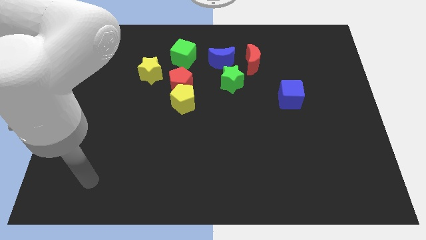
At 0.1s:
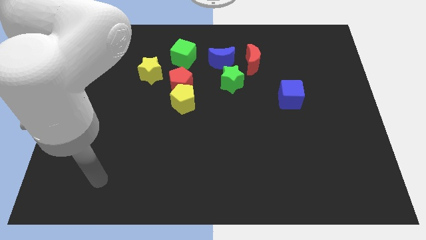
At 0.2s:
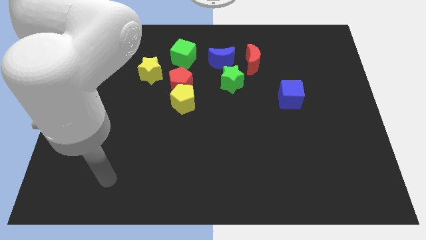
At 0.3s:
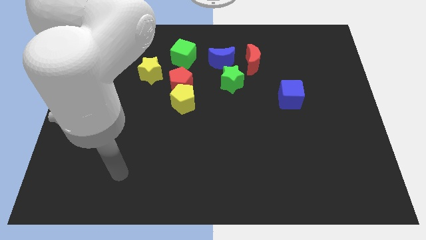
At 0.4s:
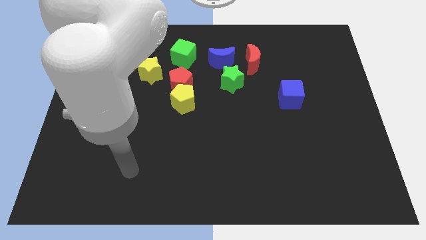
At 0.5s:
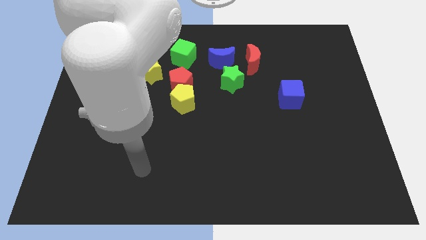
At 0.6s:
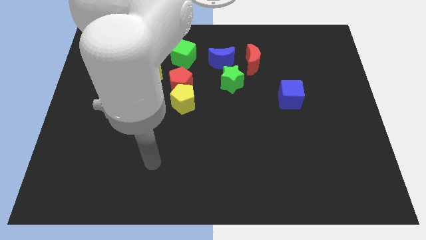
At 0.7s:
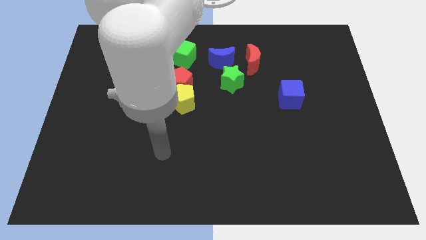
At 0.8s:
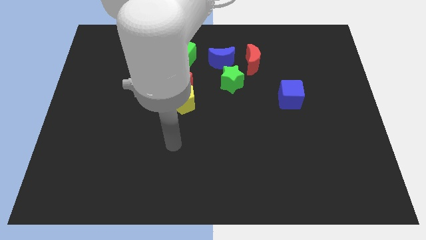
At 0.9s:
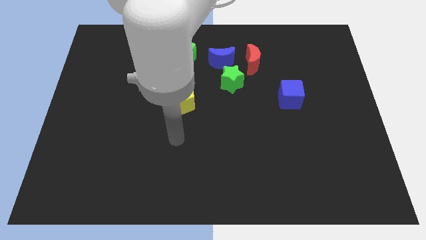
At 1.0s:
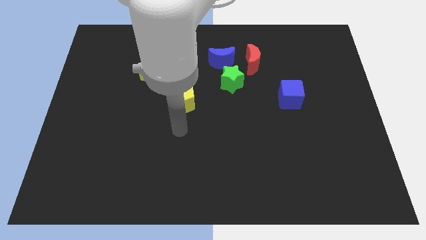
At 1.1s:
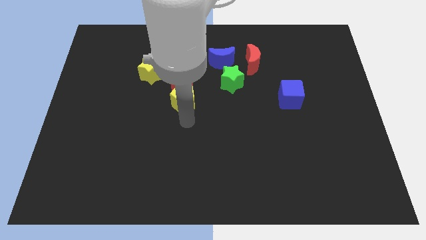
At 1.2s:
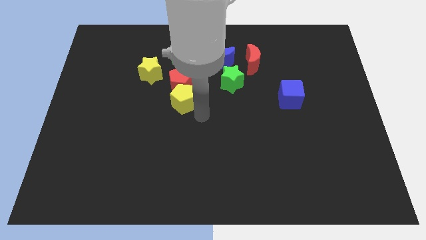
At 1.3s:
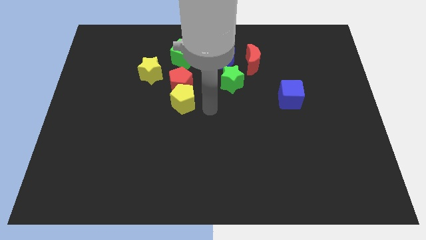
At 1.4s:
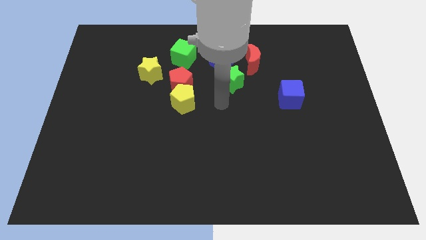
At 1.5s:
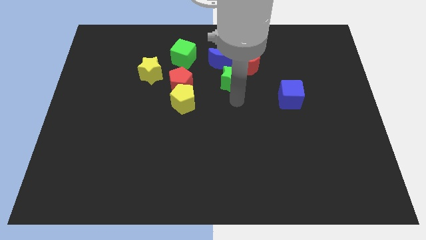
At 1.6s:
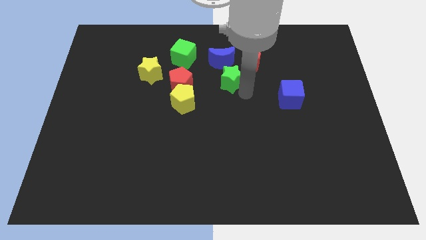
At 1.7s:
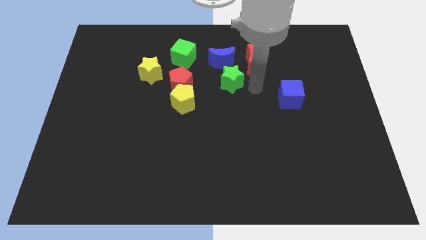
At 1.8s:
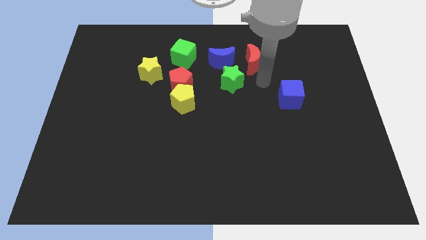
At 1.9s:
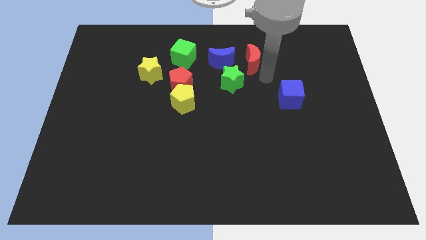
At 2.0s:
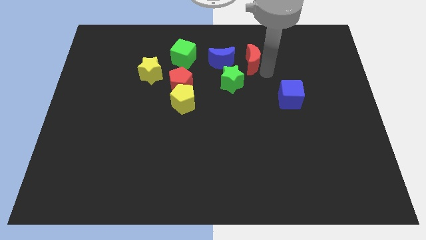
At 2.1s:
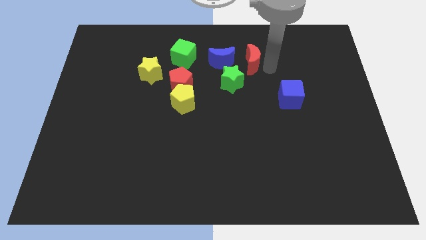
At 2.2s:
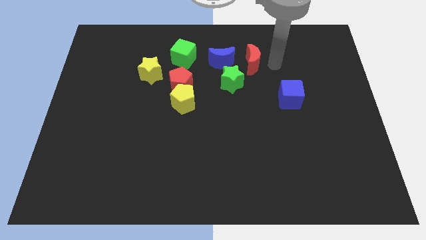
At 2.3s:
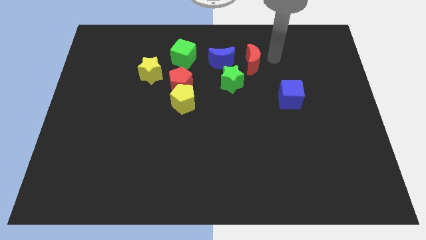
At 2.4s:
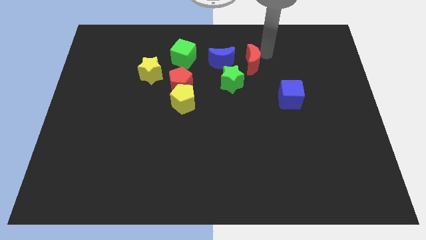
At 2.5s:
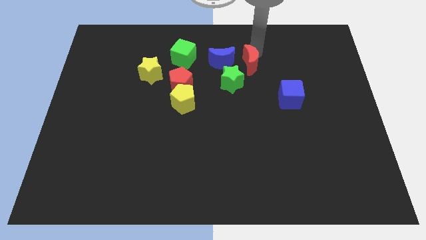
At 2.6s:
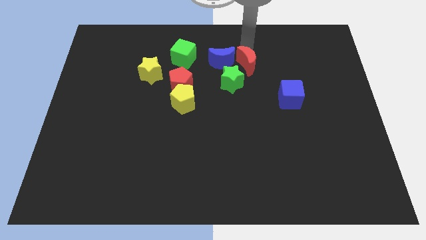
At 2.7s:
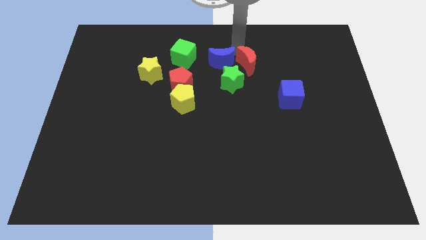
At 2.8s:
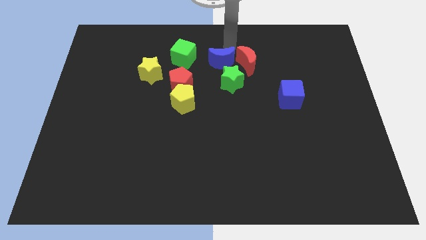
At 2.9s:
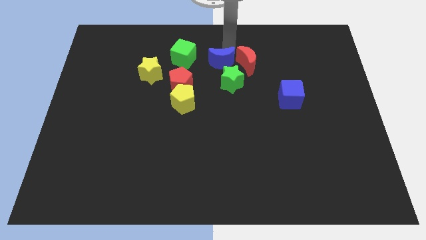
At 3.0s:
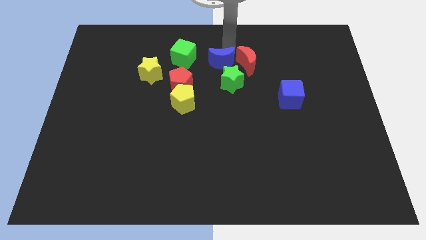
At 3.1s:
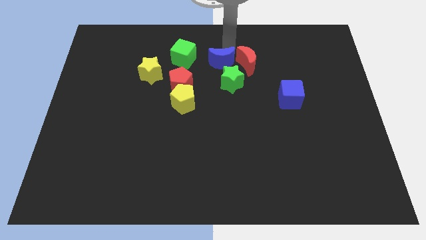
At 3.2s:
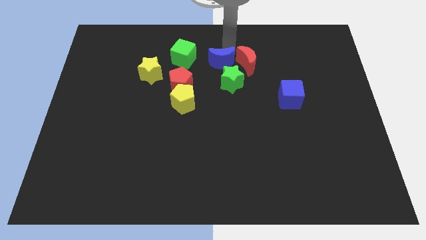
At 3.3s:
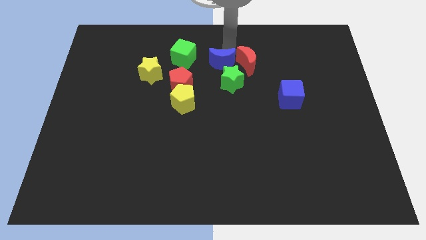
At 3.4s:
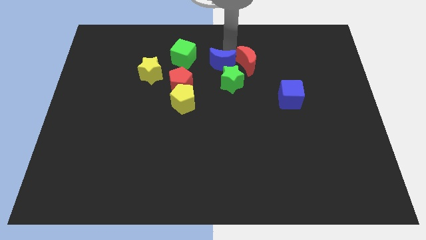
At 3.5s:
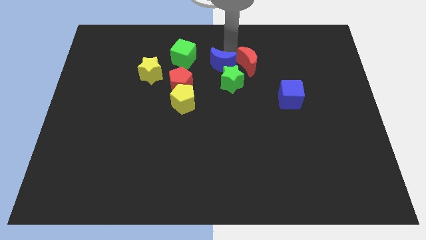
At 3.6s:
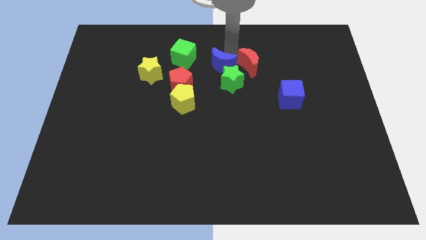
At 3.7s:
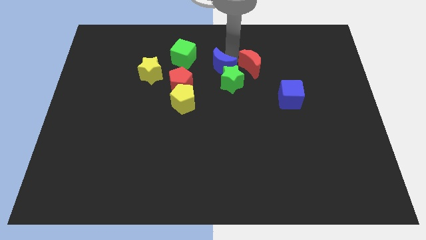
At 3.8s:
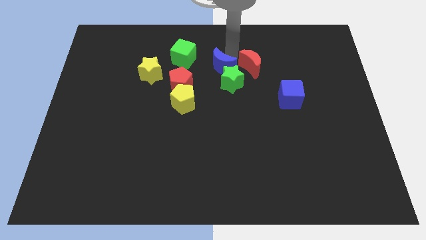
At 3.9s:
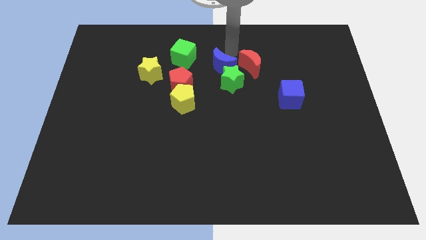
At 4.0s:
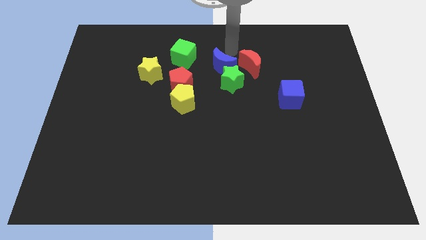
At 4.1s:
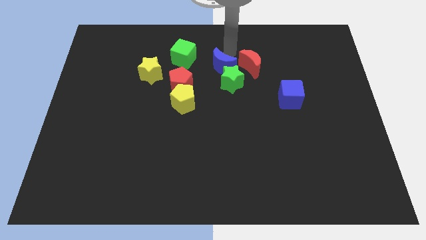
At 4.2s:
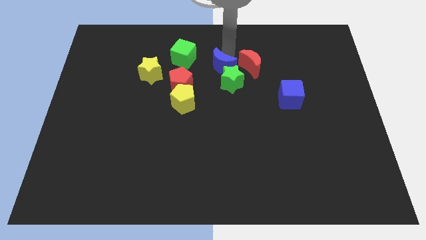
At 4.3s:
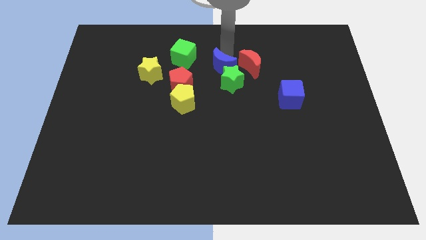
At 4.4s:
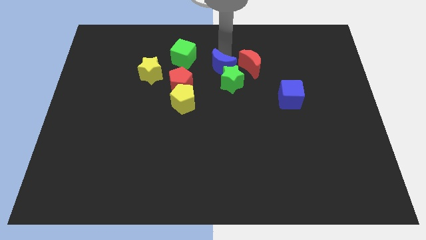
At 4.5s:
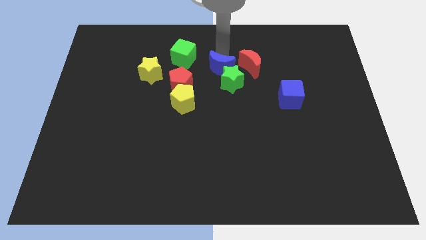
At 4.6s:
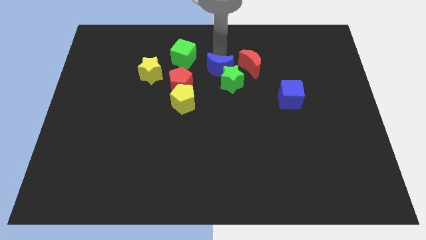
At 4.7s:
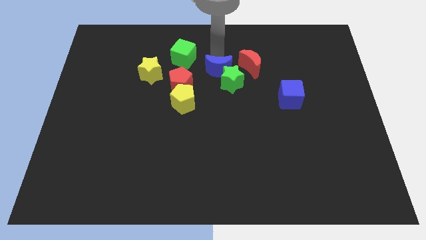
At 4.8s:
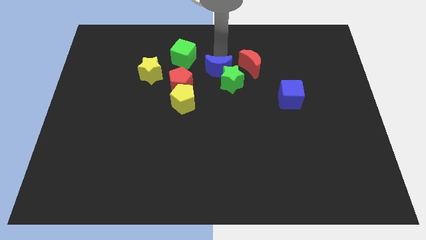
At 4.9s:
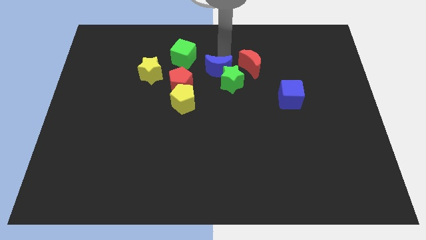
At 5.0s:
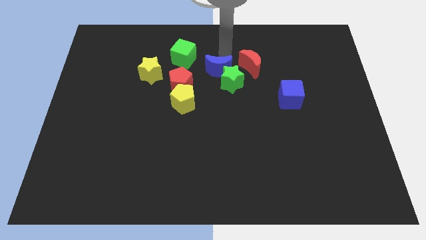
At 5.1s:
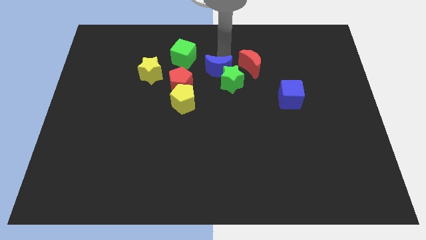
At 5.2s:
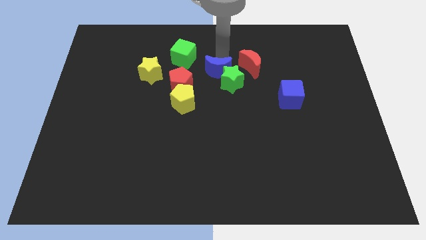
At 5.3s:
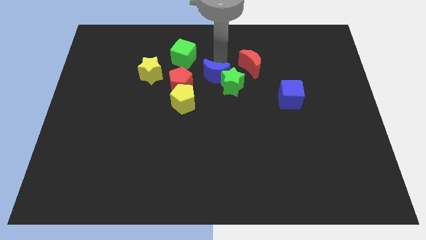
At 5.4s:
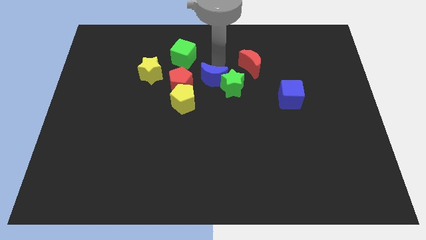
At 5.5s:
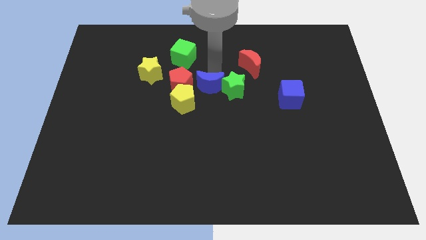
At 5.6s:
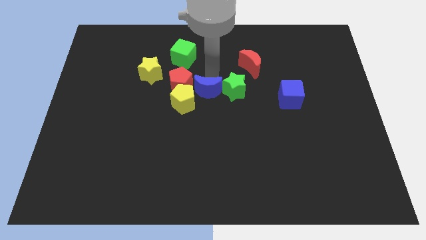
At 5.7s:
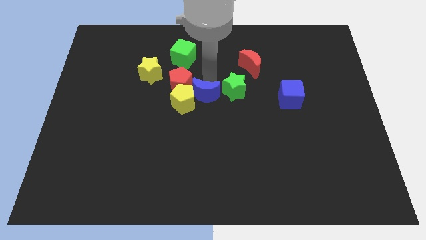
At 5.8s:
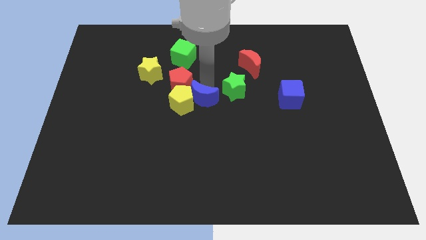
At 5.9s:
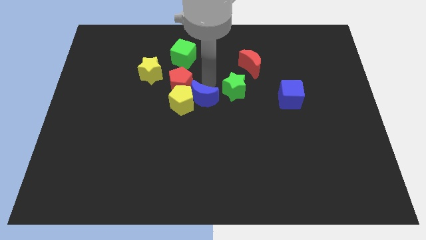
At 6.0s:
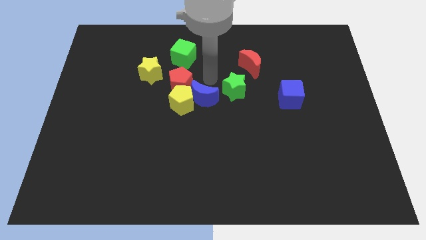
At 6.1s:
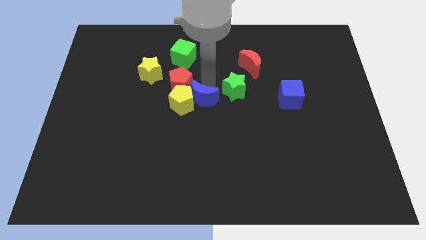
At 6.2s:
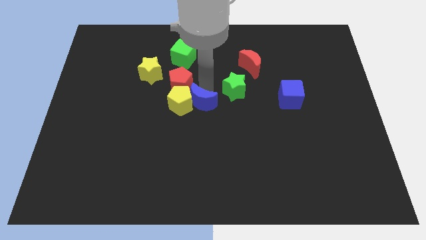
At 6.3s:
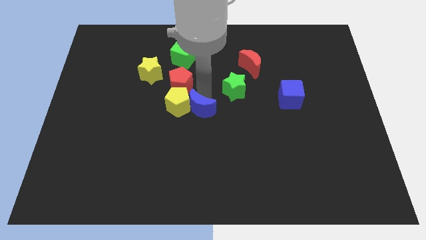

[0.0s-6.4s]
move the blue moon to the bottom side of the red pentagon

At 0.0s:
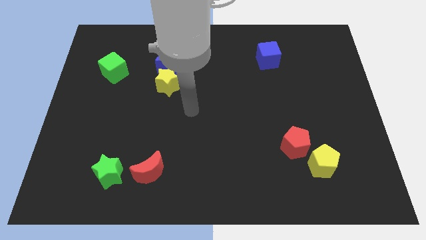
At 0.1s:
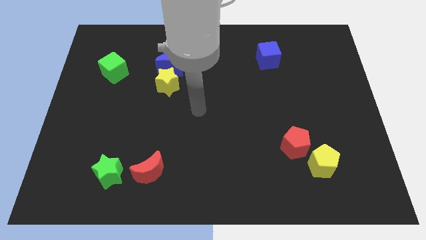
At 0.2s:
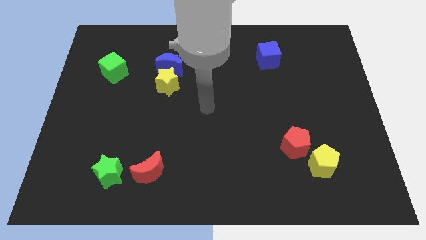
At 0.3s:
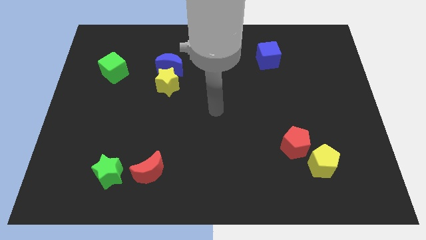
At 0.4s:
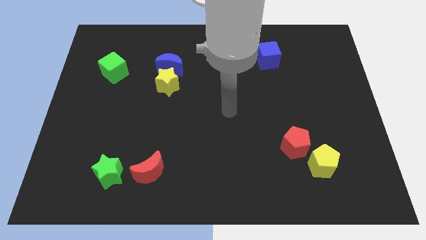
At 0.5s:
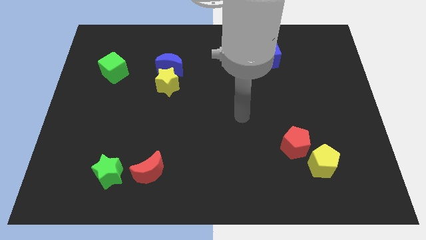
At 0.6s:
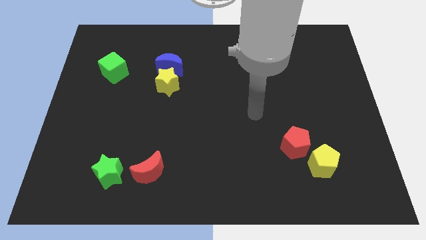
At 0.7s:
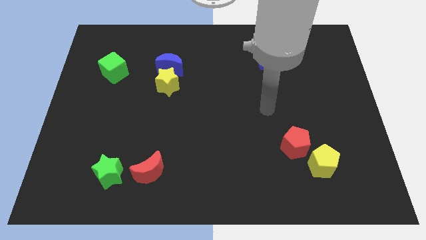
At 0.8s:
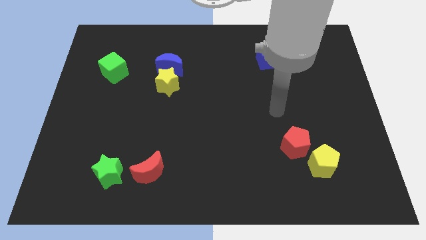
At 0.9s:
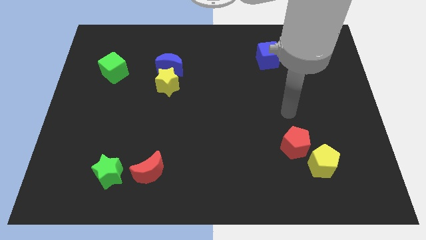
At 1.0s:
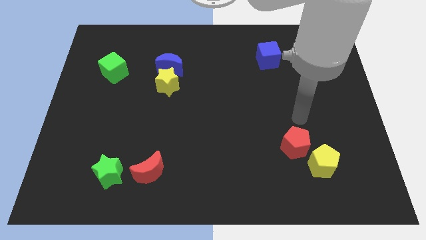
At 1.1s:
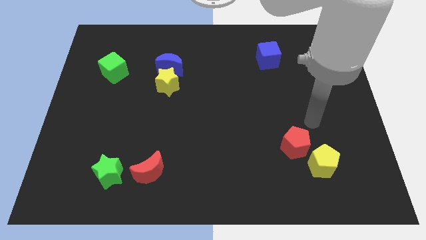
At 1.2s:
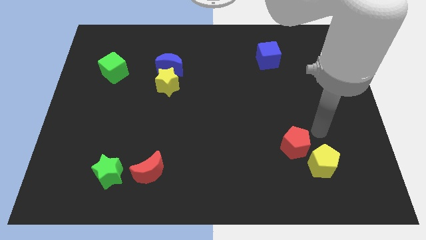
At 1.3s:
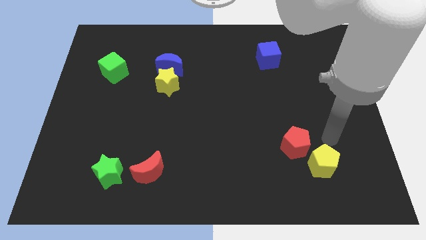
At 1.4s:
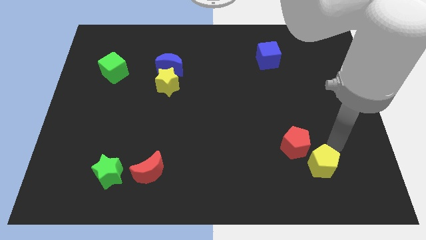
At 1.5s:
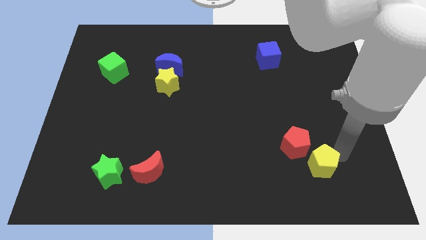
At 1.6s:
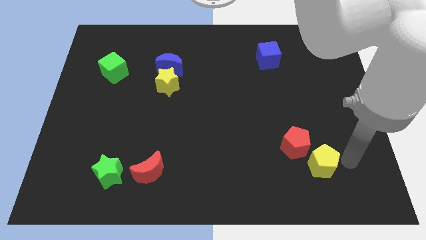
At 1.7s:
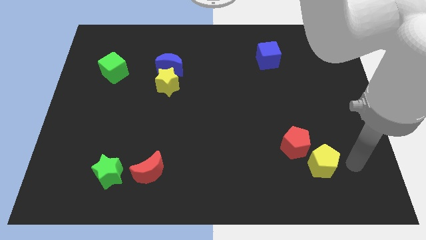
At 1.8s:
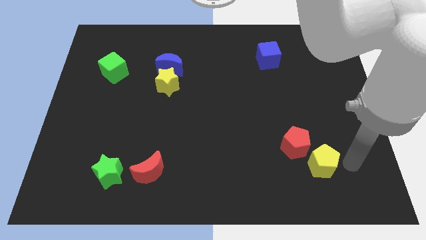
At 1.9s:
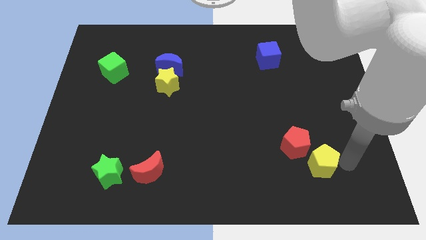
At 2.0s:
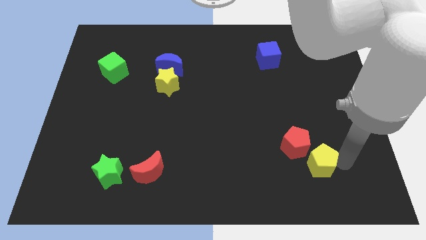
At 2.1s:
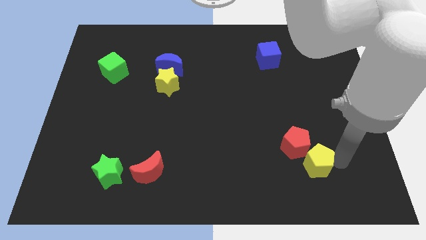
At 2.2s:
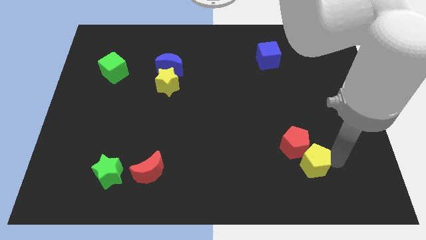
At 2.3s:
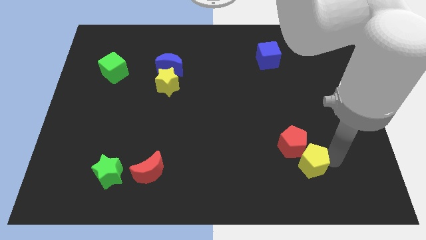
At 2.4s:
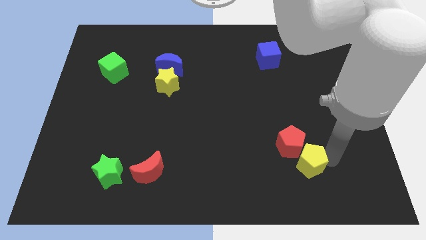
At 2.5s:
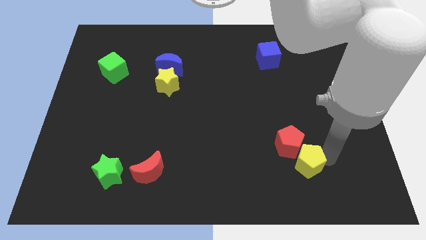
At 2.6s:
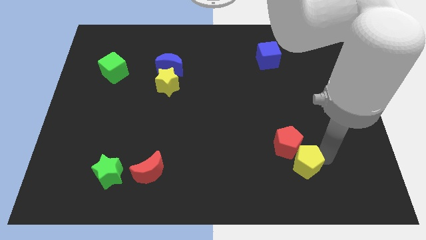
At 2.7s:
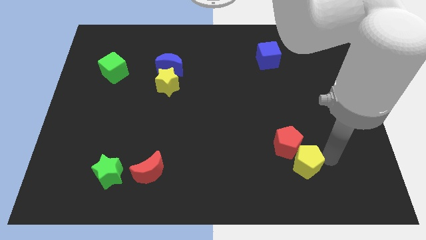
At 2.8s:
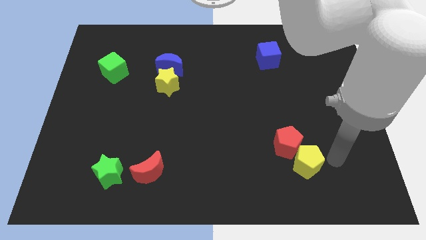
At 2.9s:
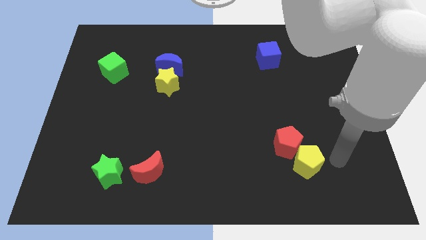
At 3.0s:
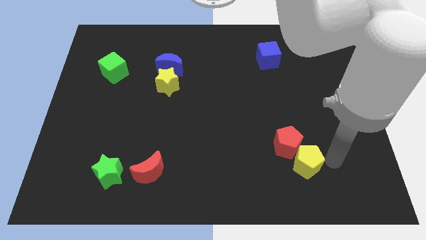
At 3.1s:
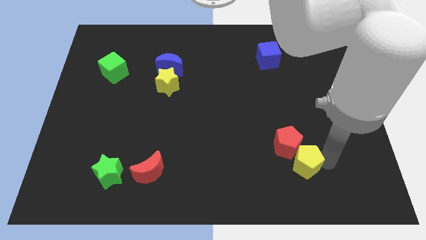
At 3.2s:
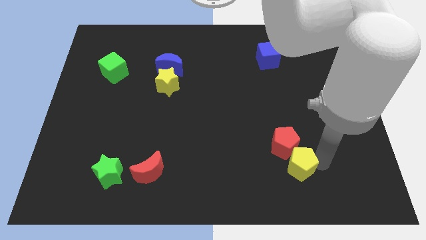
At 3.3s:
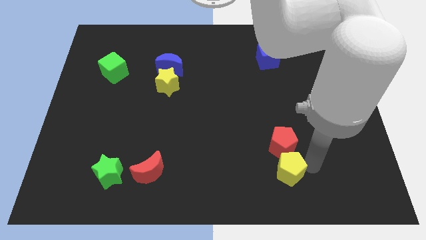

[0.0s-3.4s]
slide the yellow pentagon diagonally down and to the left of the red pentagon
